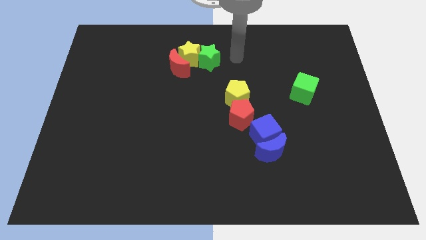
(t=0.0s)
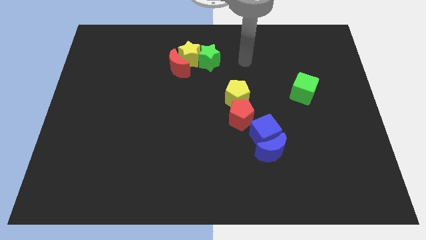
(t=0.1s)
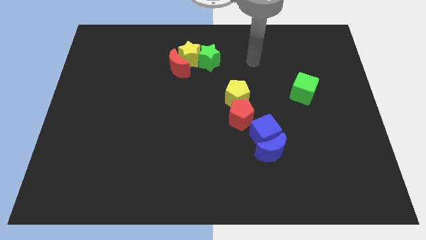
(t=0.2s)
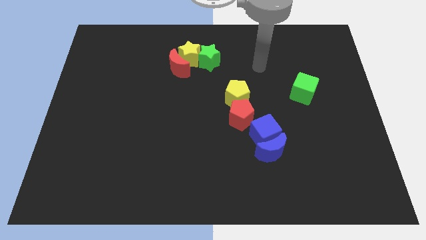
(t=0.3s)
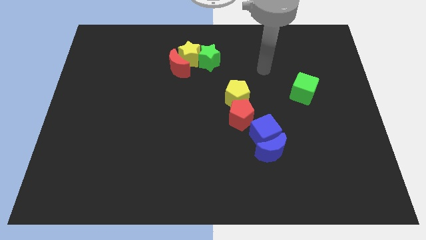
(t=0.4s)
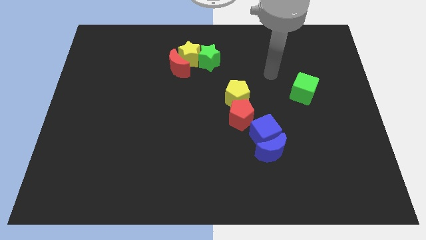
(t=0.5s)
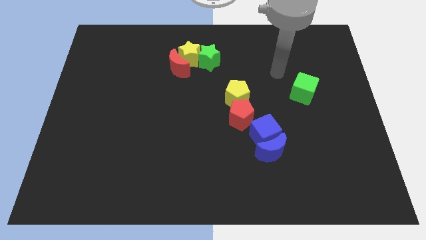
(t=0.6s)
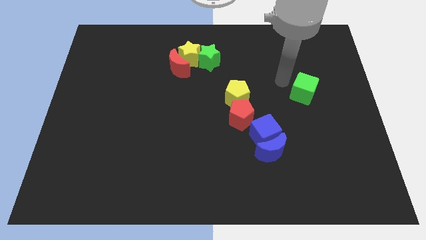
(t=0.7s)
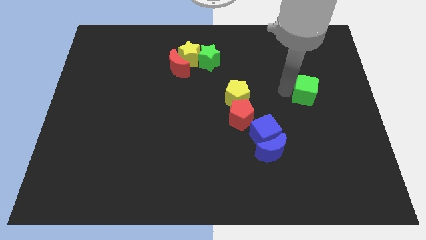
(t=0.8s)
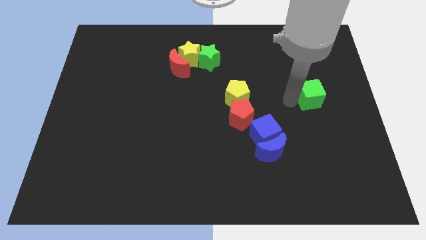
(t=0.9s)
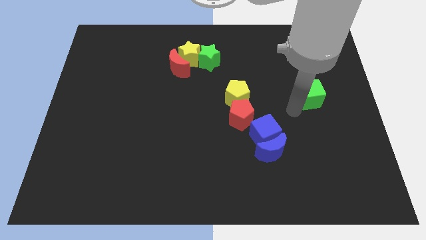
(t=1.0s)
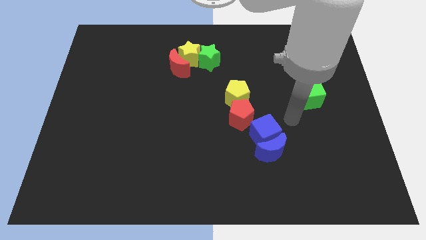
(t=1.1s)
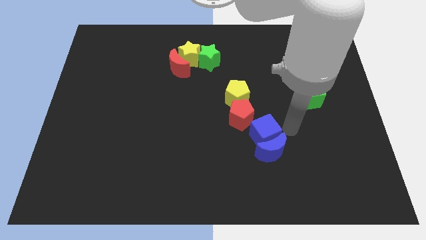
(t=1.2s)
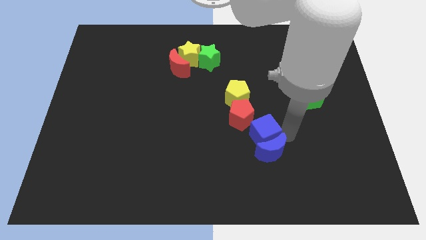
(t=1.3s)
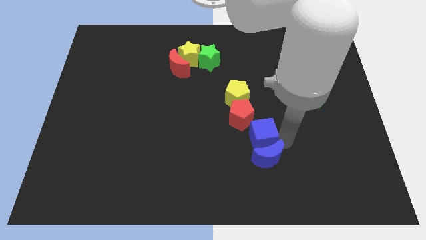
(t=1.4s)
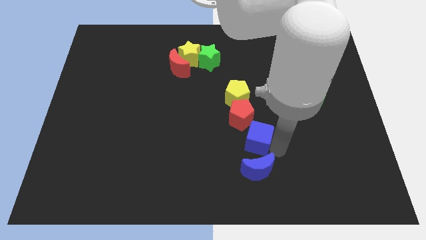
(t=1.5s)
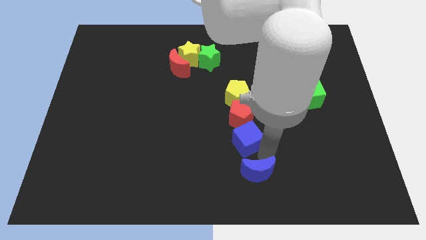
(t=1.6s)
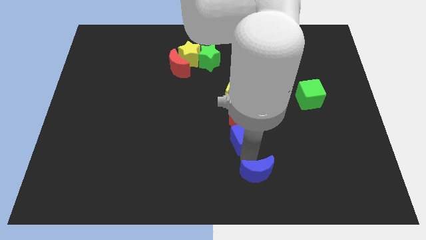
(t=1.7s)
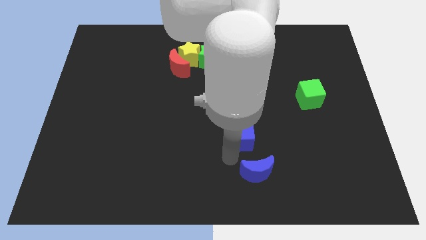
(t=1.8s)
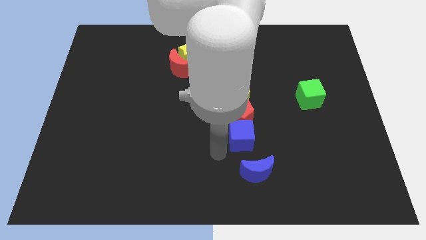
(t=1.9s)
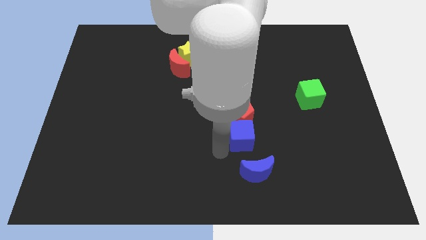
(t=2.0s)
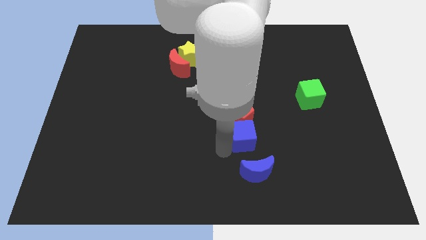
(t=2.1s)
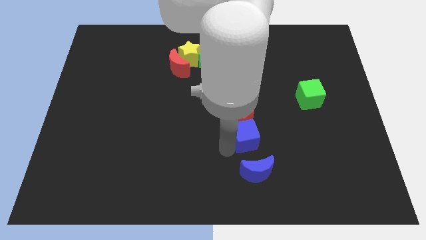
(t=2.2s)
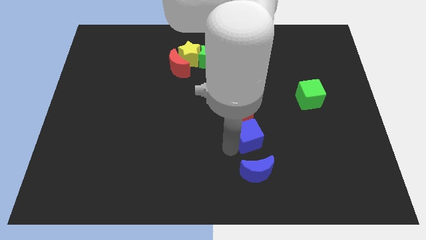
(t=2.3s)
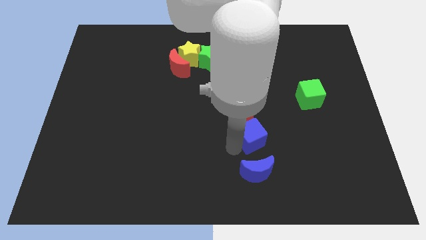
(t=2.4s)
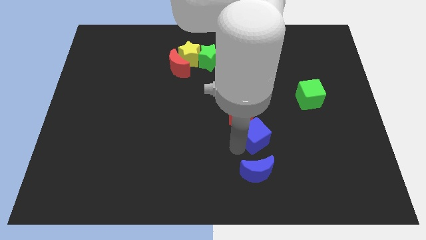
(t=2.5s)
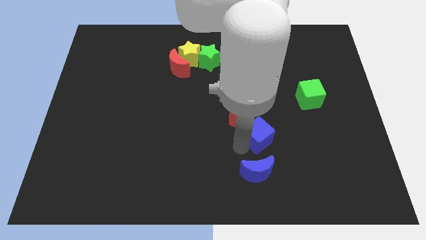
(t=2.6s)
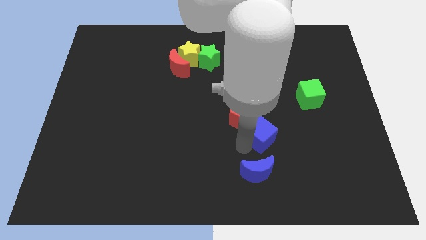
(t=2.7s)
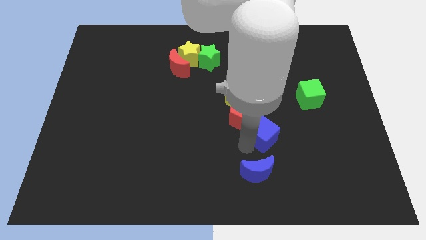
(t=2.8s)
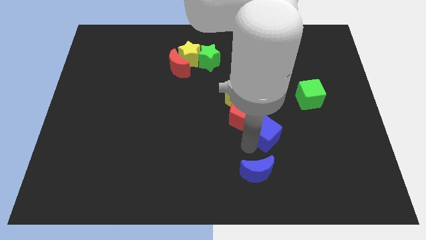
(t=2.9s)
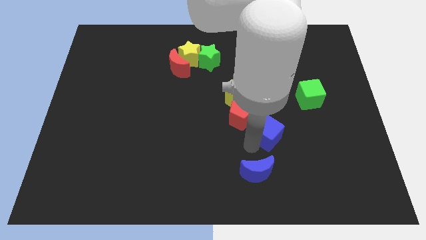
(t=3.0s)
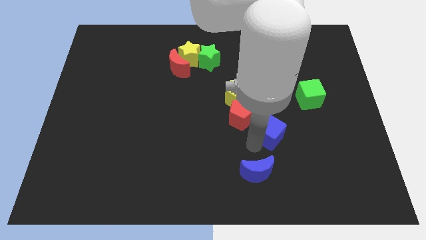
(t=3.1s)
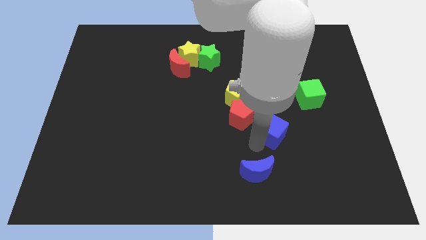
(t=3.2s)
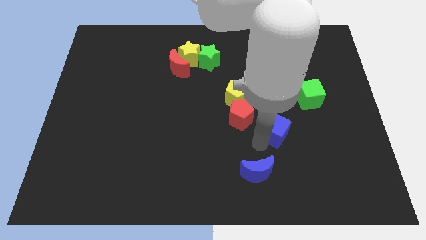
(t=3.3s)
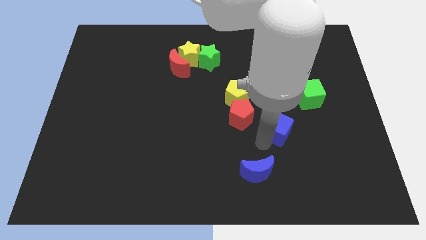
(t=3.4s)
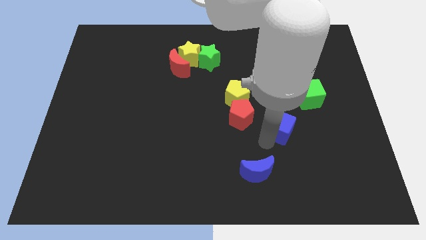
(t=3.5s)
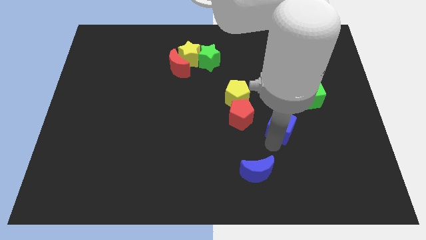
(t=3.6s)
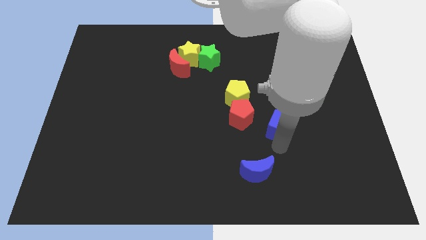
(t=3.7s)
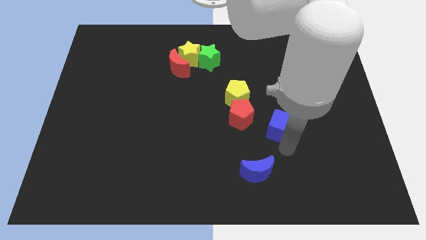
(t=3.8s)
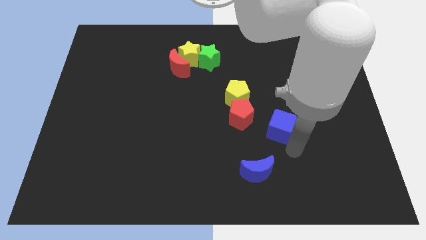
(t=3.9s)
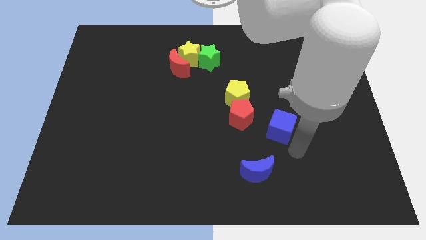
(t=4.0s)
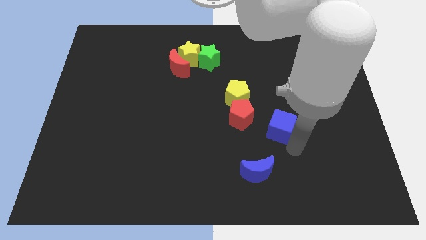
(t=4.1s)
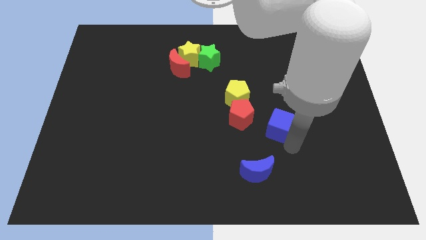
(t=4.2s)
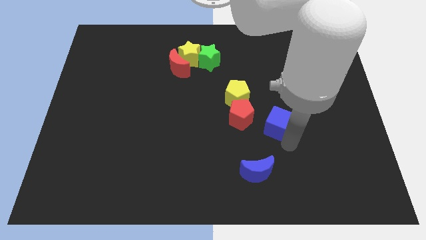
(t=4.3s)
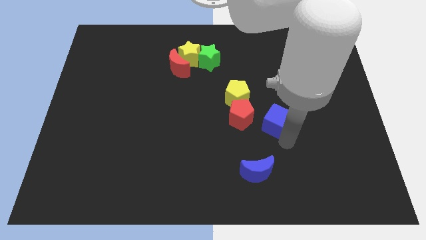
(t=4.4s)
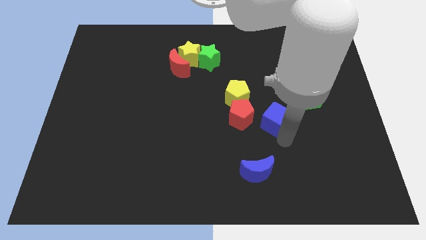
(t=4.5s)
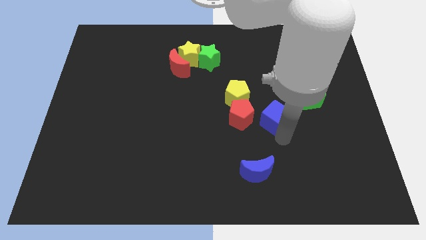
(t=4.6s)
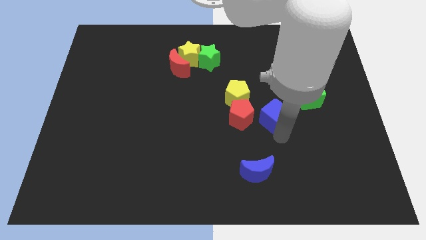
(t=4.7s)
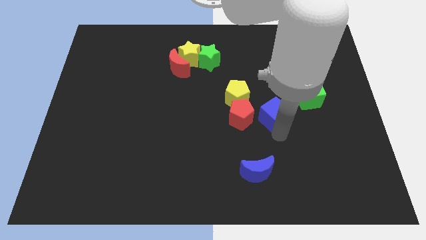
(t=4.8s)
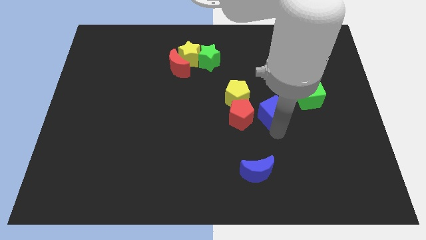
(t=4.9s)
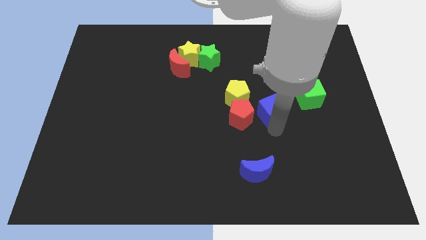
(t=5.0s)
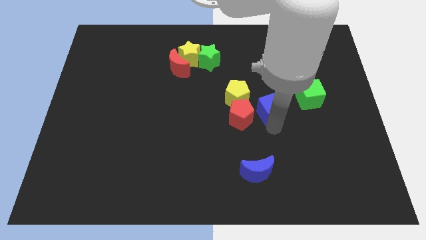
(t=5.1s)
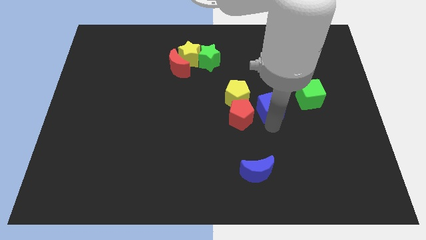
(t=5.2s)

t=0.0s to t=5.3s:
slightly slide the blue cube upwards

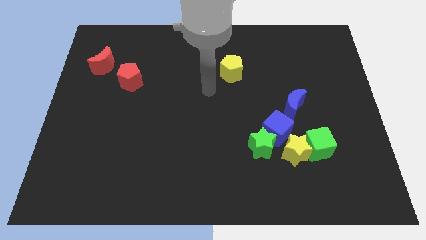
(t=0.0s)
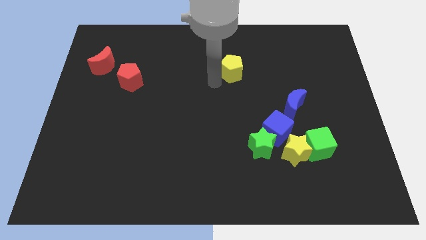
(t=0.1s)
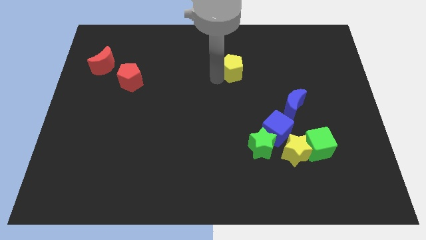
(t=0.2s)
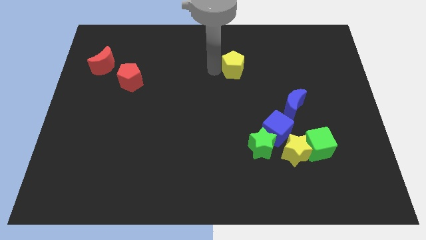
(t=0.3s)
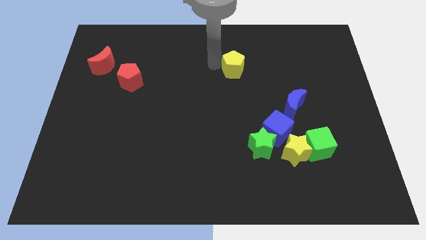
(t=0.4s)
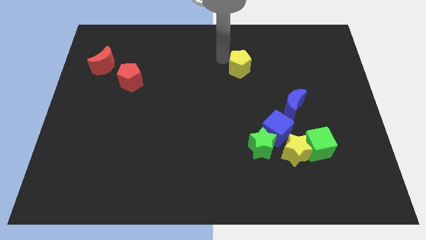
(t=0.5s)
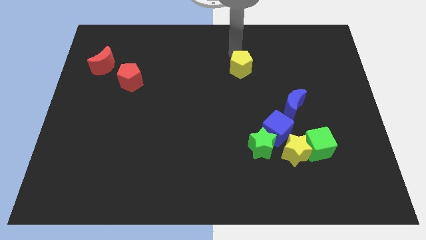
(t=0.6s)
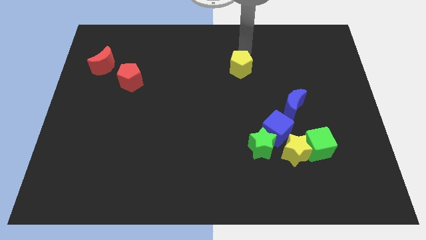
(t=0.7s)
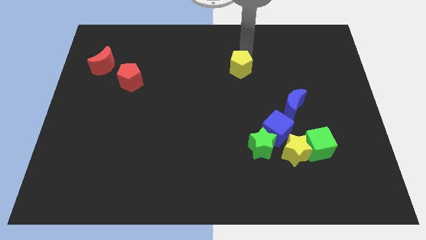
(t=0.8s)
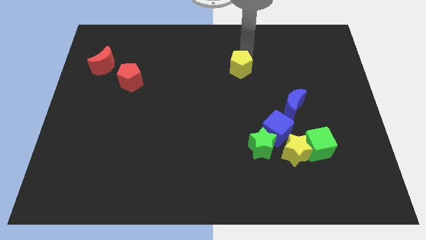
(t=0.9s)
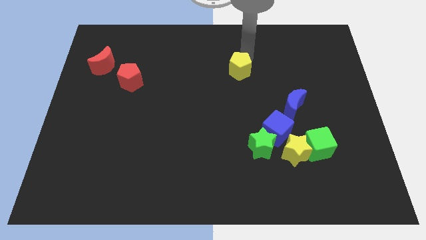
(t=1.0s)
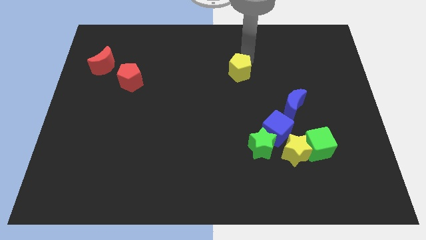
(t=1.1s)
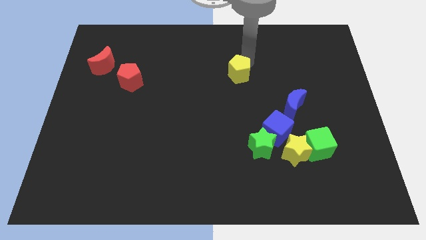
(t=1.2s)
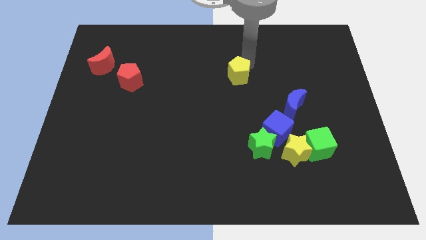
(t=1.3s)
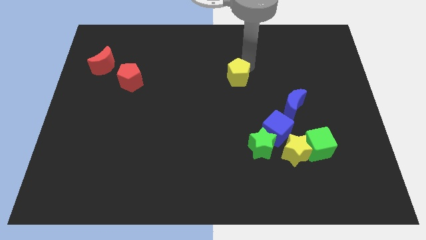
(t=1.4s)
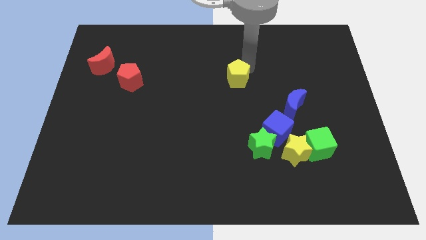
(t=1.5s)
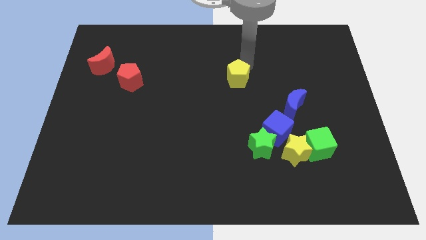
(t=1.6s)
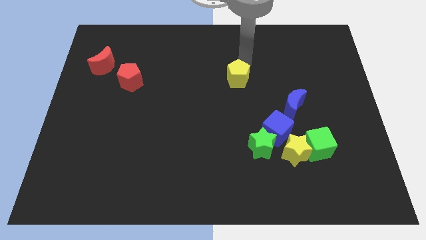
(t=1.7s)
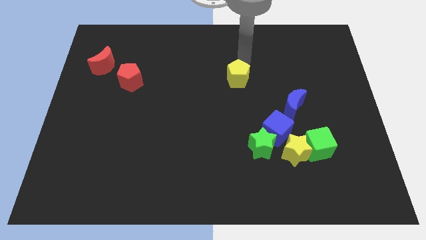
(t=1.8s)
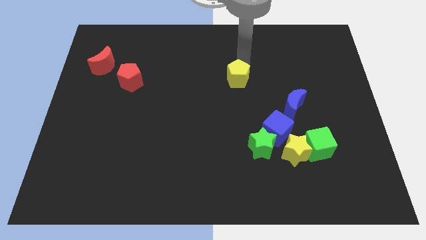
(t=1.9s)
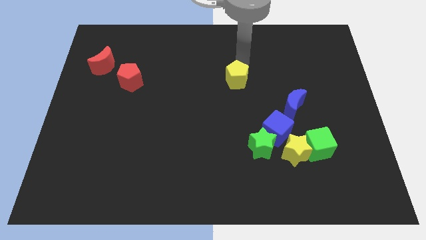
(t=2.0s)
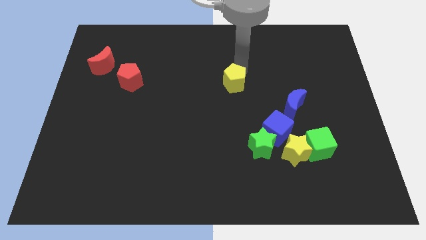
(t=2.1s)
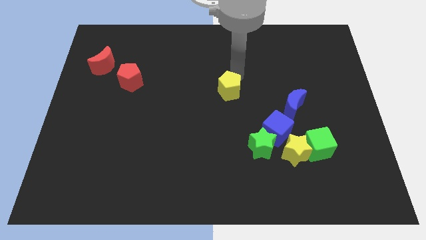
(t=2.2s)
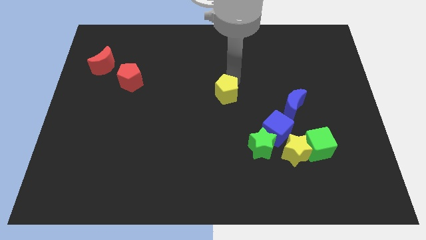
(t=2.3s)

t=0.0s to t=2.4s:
slide the yellow pentagon down slightly

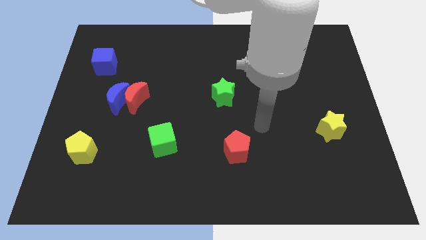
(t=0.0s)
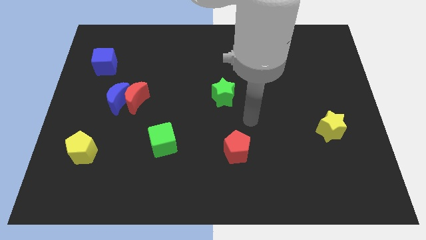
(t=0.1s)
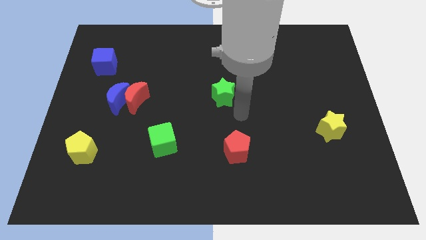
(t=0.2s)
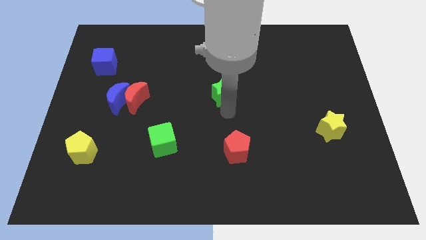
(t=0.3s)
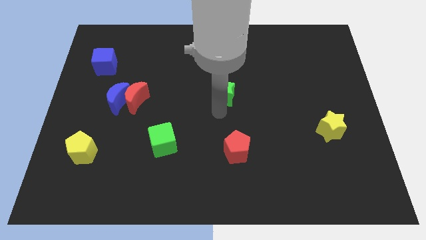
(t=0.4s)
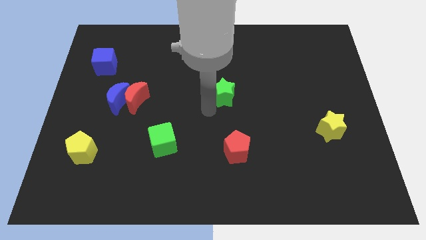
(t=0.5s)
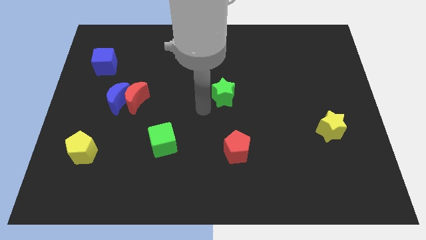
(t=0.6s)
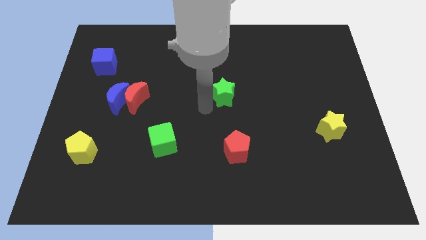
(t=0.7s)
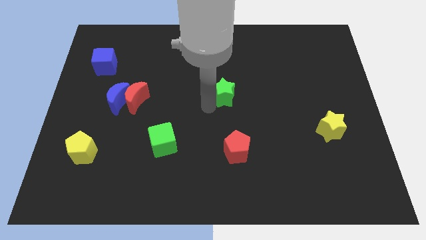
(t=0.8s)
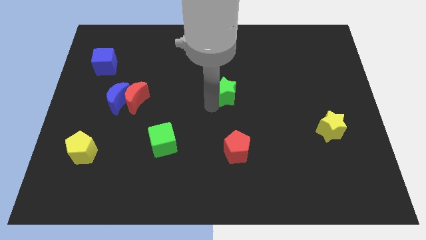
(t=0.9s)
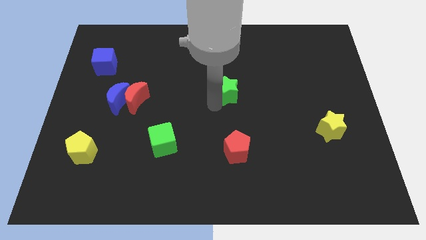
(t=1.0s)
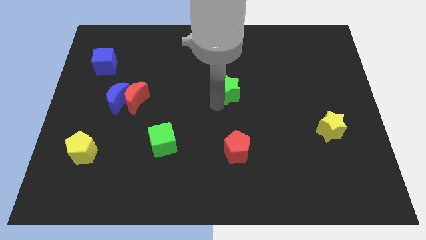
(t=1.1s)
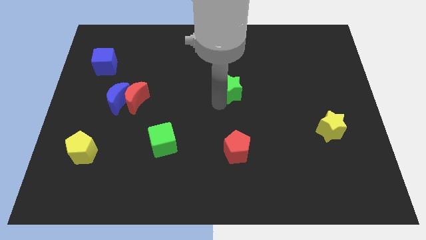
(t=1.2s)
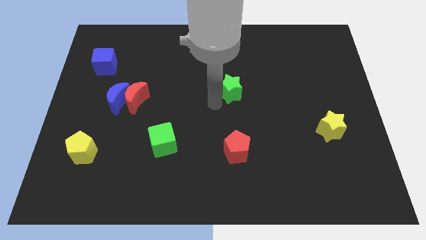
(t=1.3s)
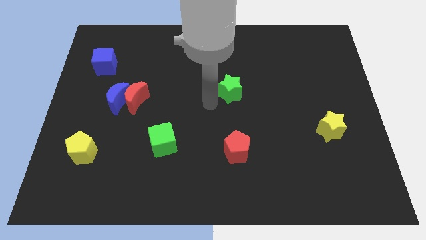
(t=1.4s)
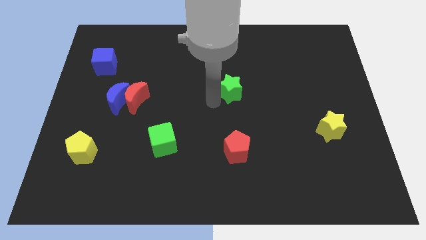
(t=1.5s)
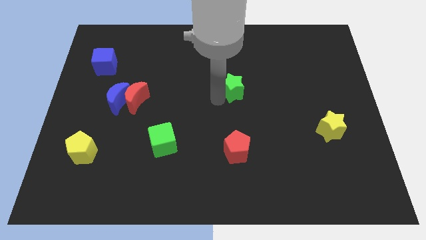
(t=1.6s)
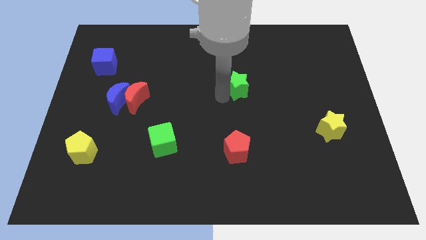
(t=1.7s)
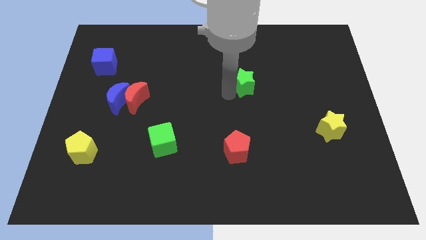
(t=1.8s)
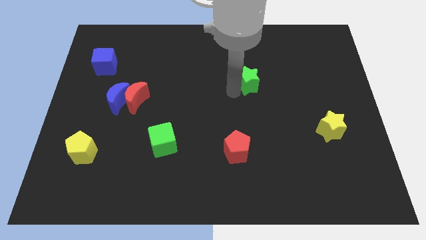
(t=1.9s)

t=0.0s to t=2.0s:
slide the green star upwards and right diagonally slightly
